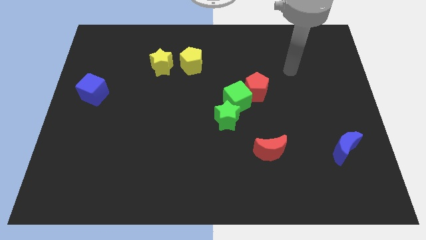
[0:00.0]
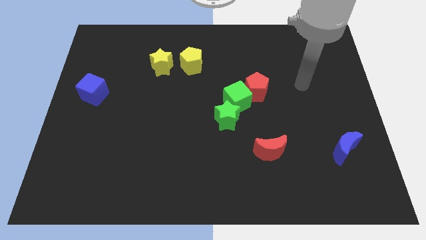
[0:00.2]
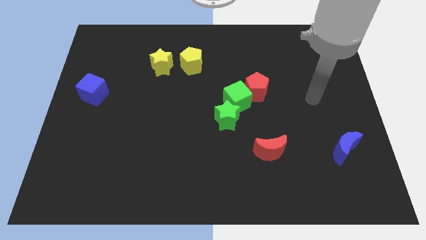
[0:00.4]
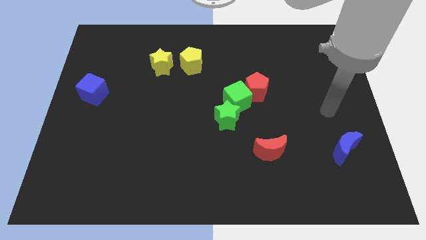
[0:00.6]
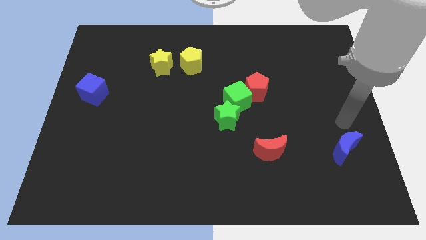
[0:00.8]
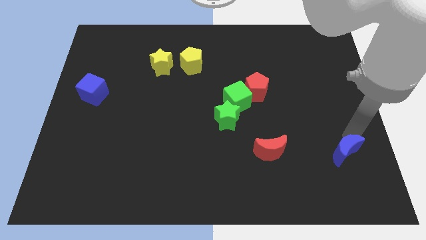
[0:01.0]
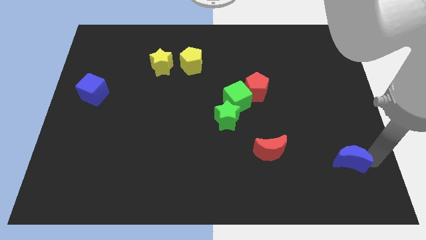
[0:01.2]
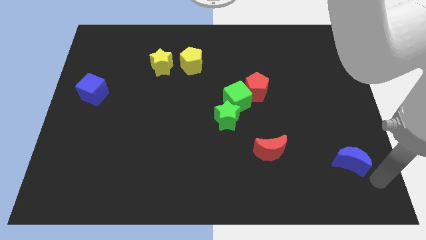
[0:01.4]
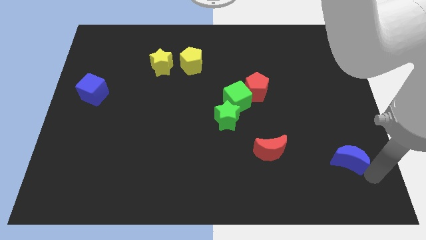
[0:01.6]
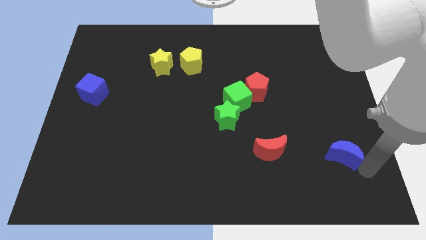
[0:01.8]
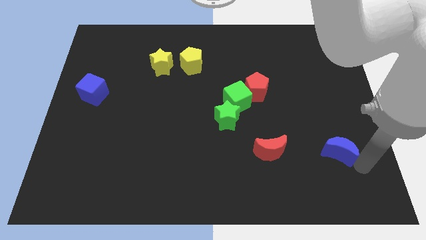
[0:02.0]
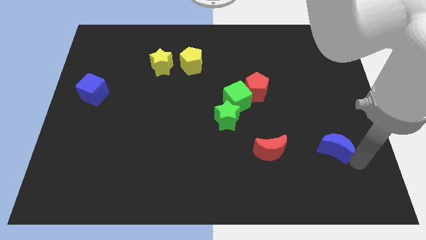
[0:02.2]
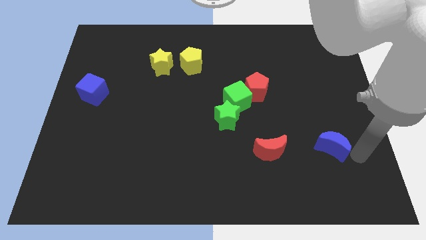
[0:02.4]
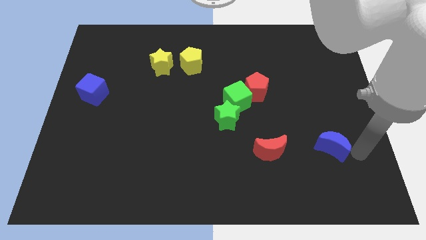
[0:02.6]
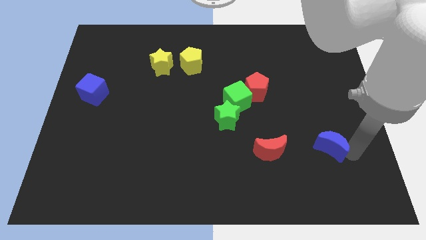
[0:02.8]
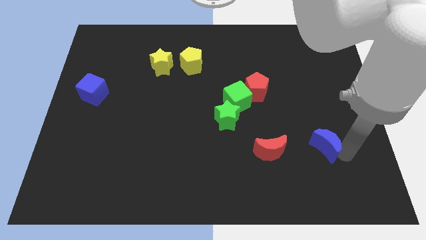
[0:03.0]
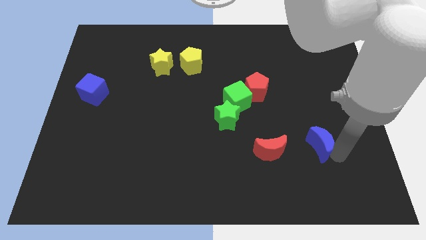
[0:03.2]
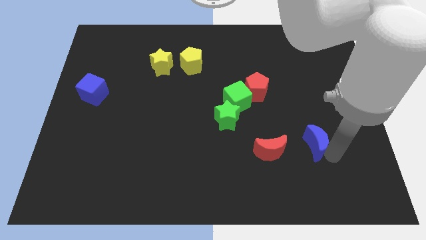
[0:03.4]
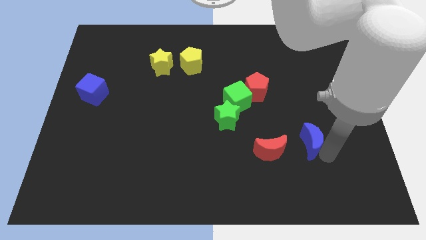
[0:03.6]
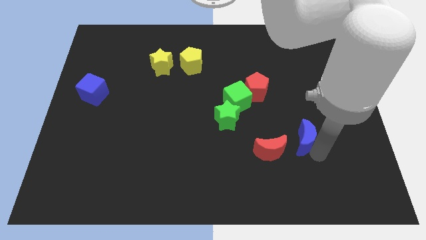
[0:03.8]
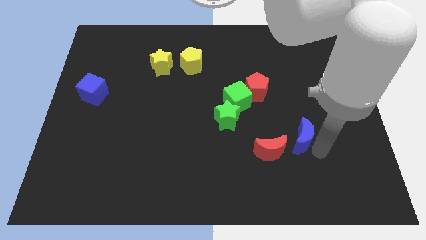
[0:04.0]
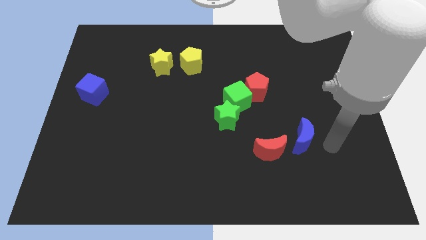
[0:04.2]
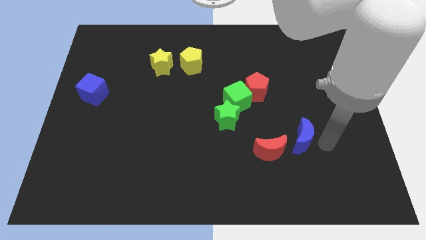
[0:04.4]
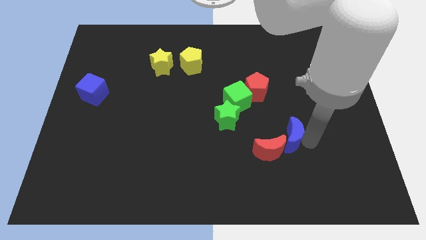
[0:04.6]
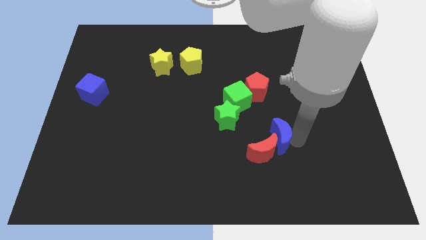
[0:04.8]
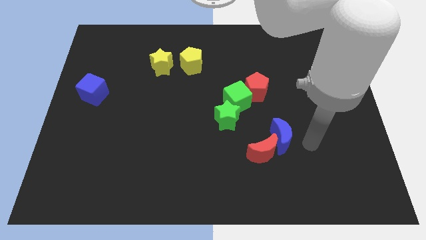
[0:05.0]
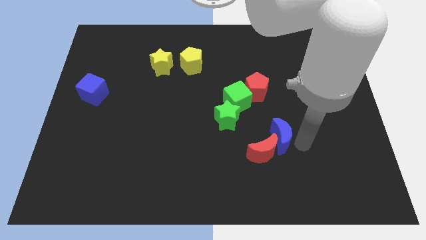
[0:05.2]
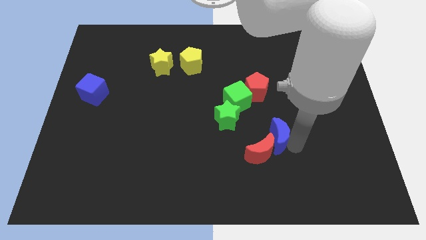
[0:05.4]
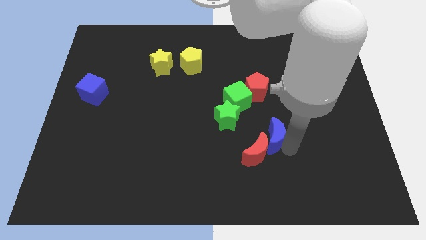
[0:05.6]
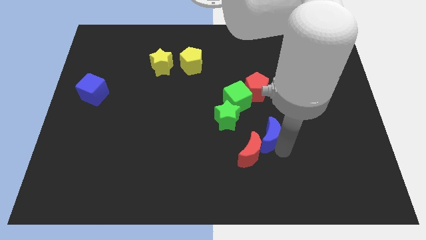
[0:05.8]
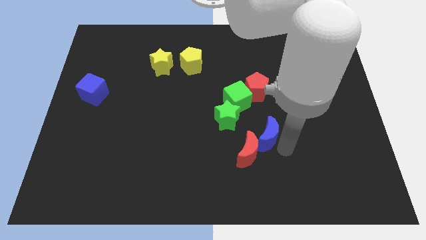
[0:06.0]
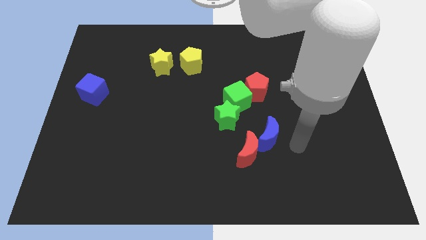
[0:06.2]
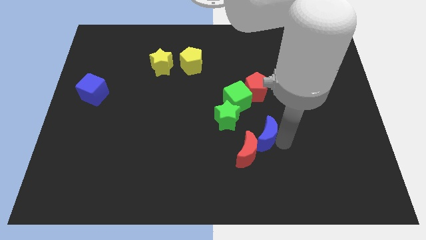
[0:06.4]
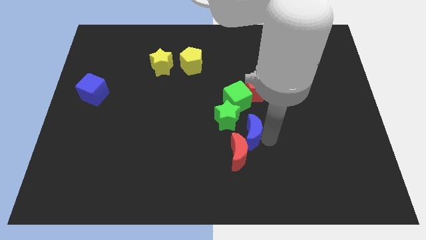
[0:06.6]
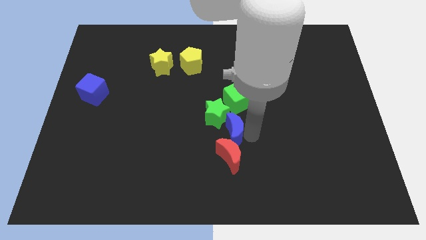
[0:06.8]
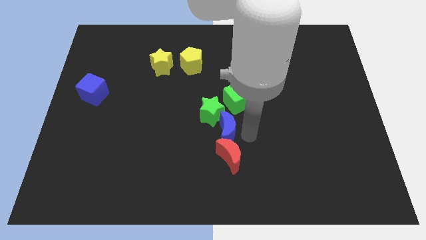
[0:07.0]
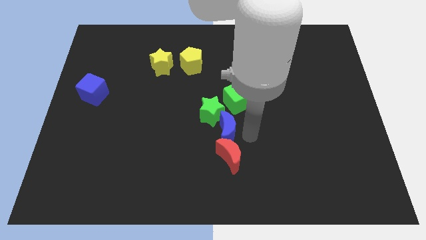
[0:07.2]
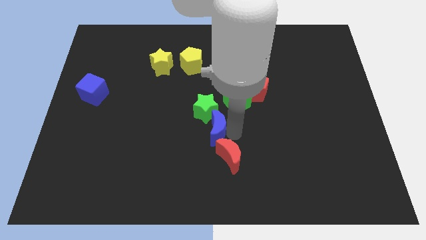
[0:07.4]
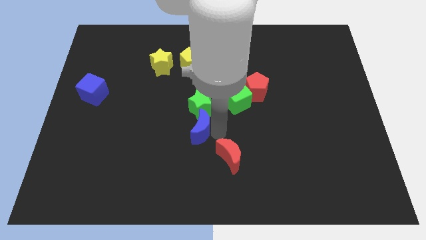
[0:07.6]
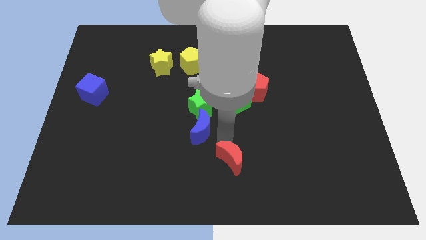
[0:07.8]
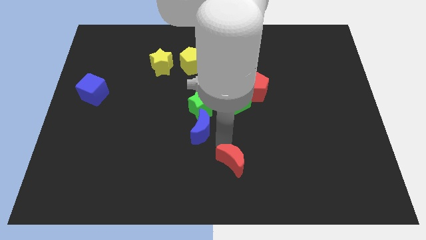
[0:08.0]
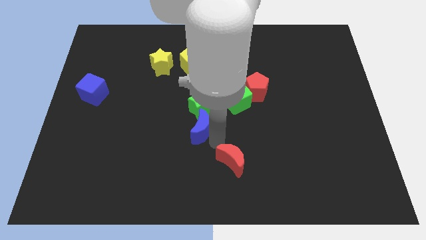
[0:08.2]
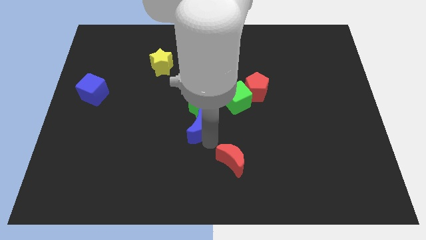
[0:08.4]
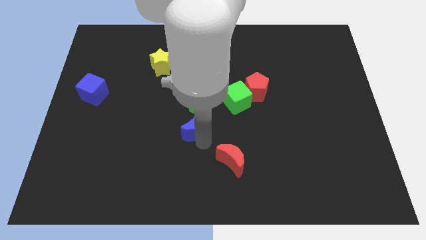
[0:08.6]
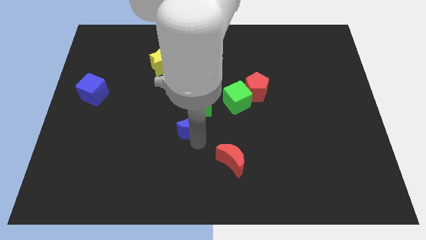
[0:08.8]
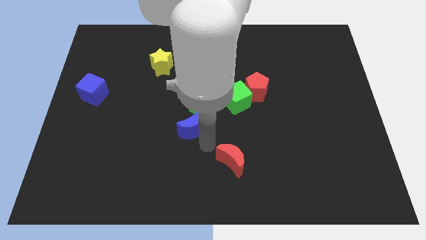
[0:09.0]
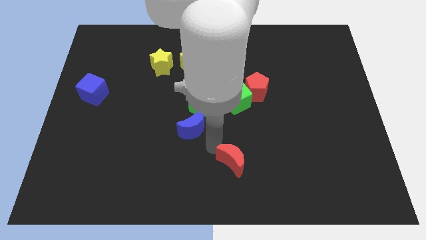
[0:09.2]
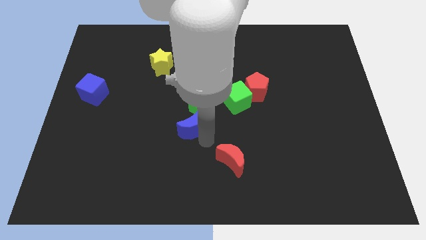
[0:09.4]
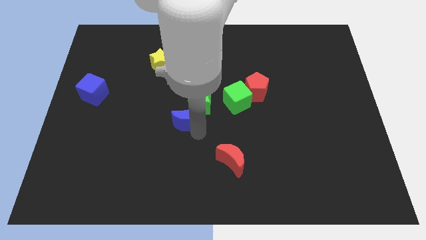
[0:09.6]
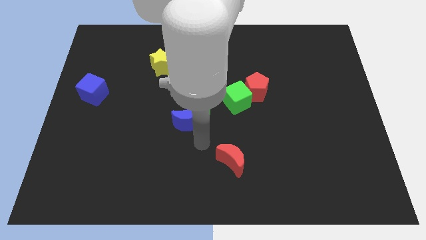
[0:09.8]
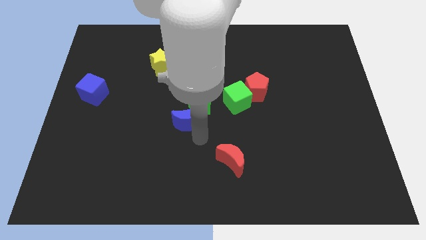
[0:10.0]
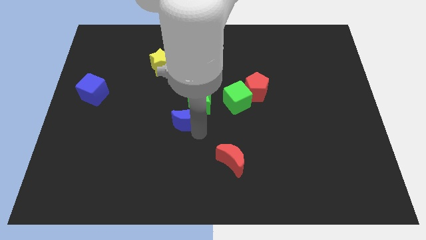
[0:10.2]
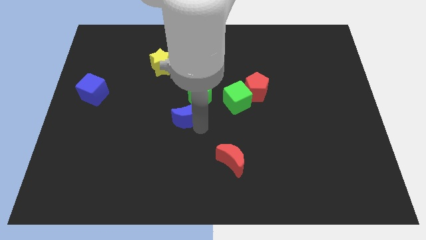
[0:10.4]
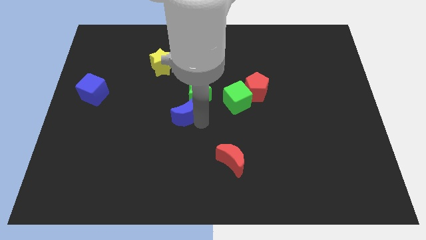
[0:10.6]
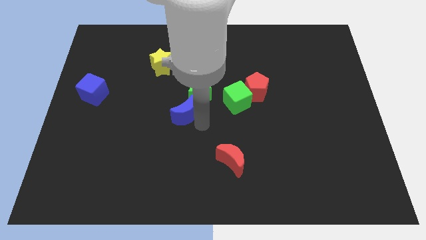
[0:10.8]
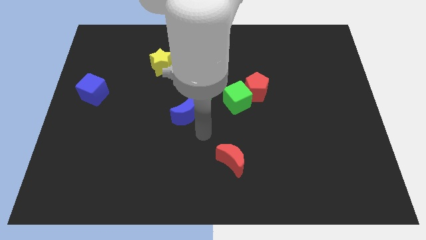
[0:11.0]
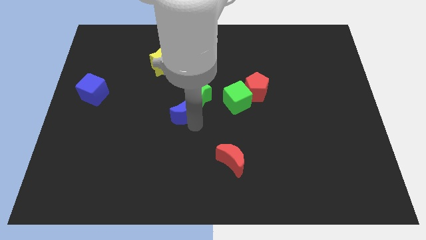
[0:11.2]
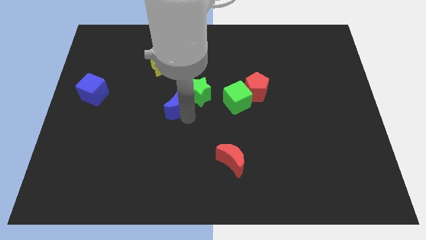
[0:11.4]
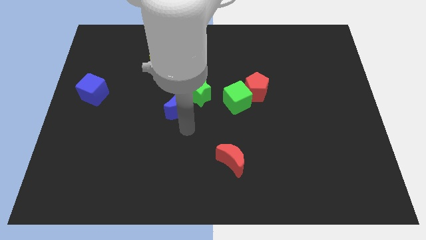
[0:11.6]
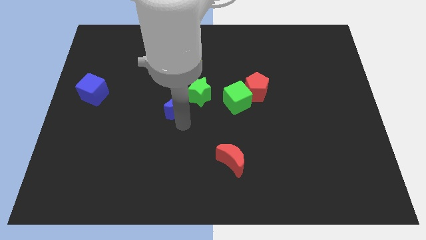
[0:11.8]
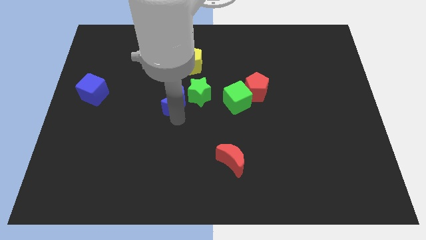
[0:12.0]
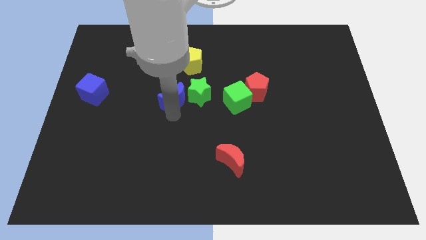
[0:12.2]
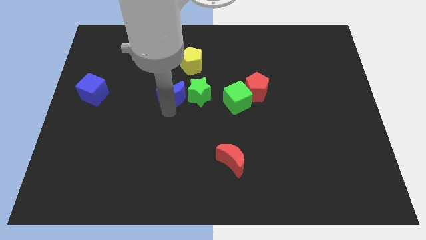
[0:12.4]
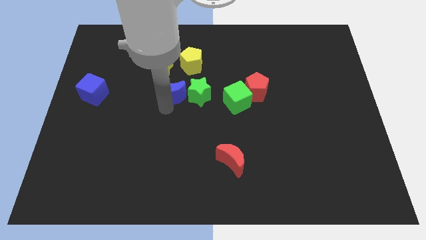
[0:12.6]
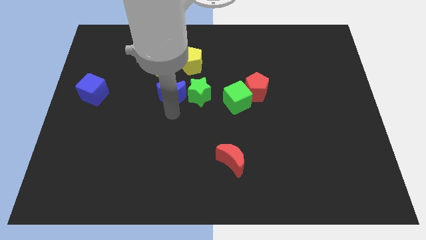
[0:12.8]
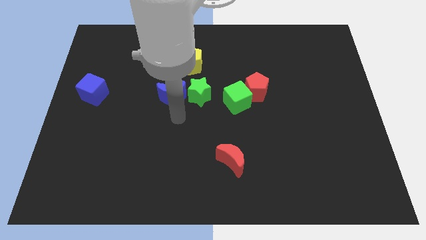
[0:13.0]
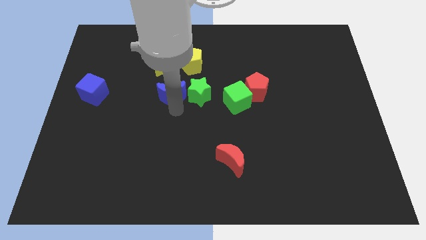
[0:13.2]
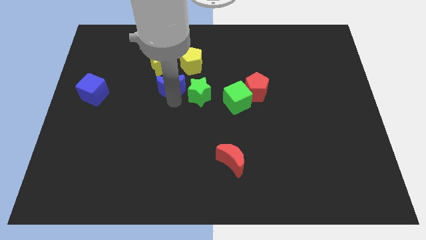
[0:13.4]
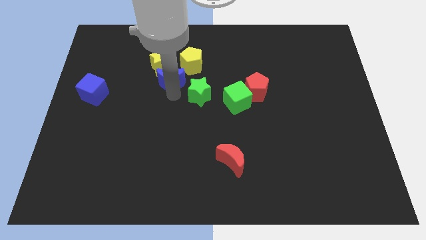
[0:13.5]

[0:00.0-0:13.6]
move the blue moon close to the yellow star

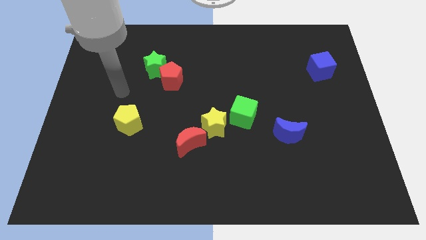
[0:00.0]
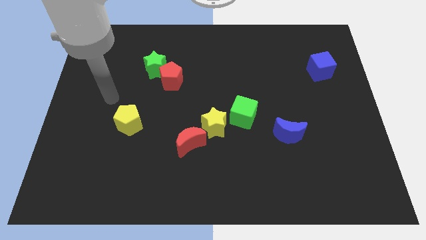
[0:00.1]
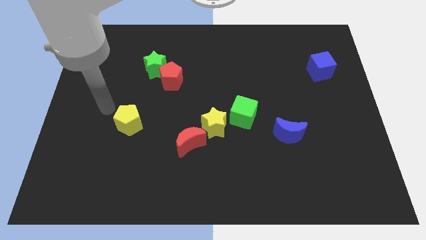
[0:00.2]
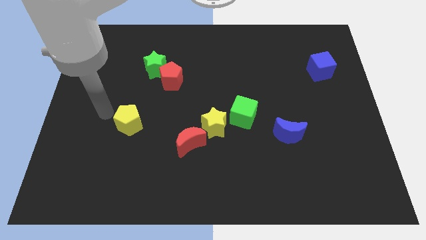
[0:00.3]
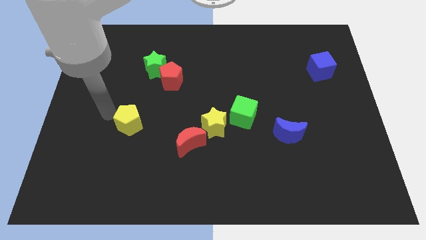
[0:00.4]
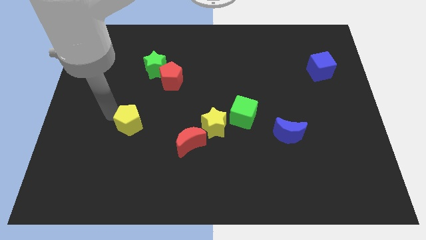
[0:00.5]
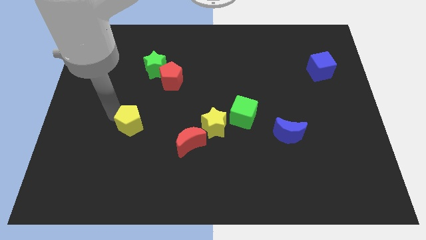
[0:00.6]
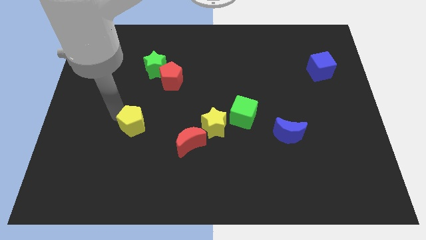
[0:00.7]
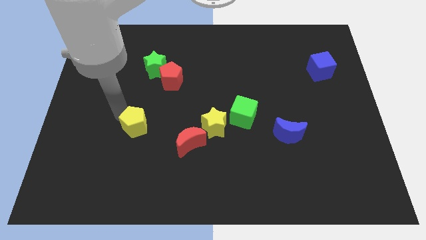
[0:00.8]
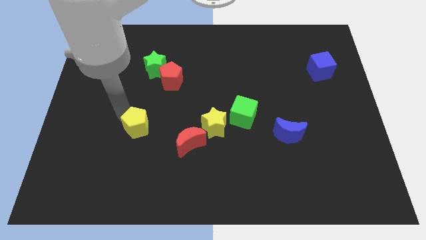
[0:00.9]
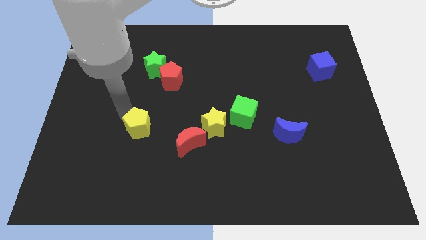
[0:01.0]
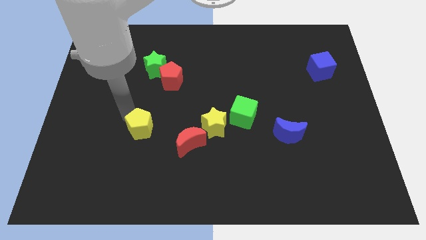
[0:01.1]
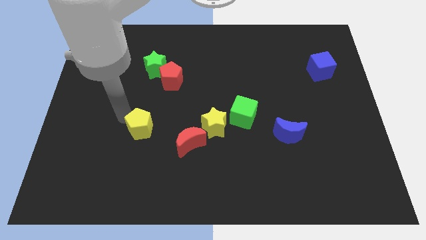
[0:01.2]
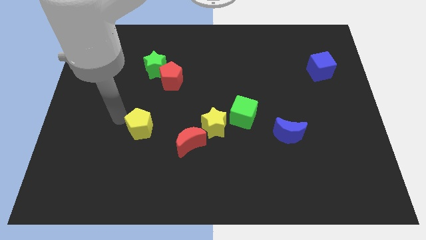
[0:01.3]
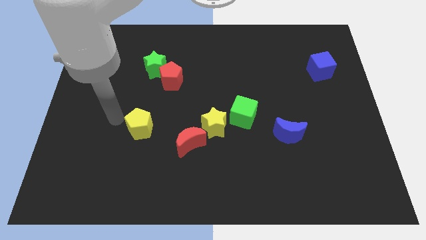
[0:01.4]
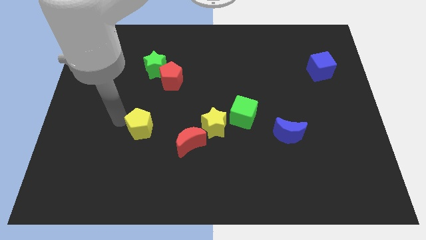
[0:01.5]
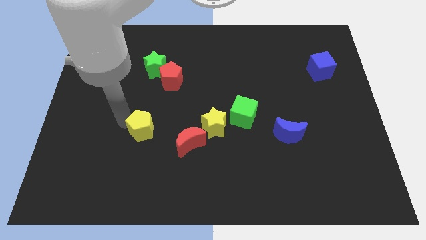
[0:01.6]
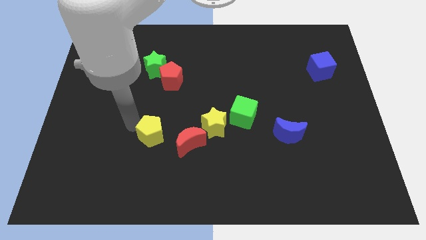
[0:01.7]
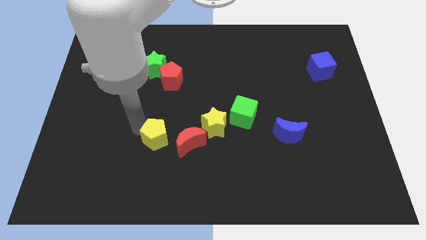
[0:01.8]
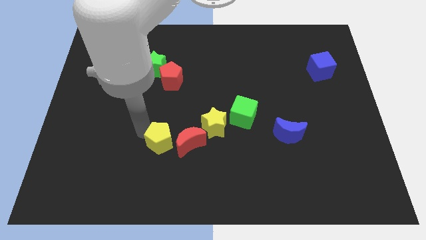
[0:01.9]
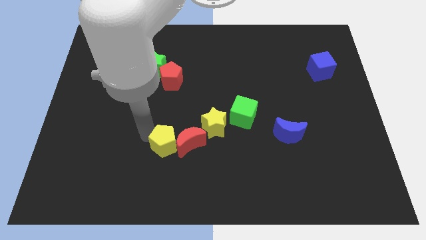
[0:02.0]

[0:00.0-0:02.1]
slide the yellow pentagon towards the red moon
